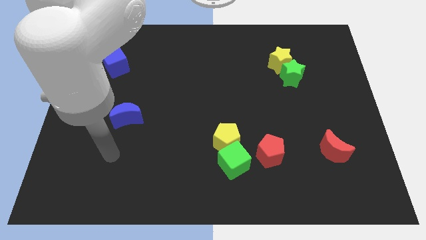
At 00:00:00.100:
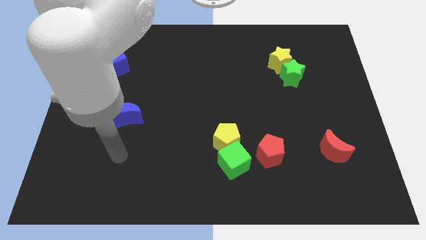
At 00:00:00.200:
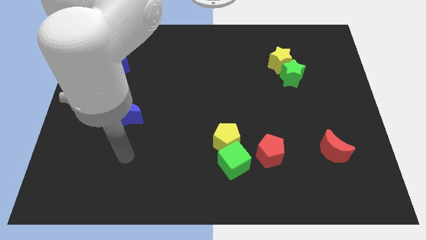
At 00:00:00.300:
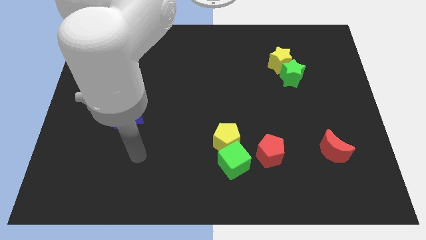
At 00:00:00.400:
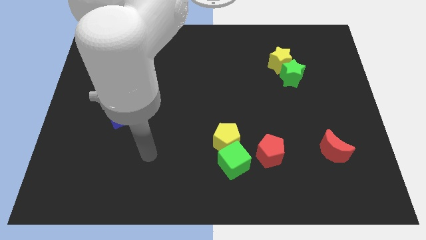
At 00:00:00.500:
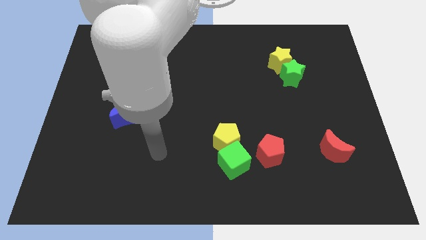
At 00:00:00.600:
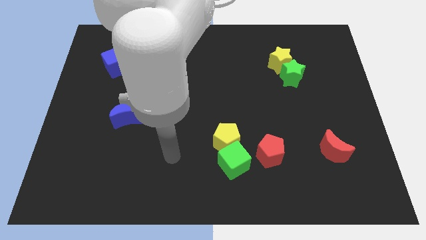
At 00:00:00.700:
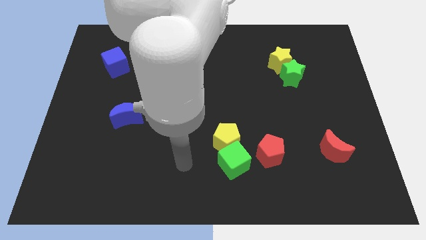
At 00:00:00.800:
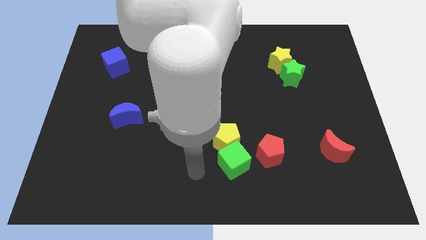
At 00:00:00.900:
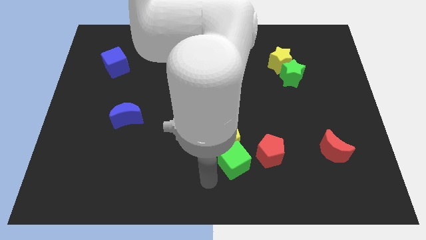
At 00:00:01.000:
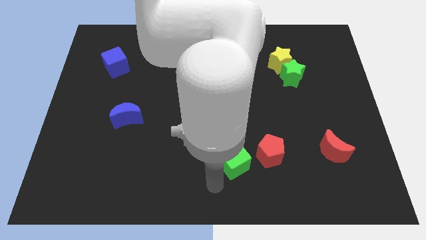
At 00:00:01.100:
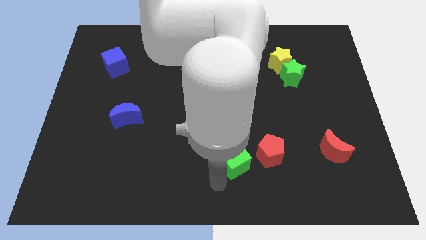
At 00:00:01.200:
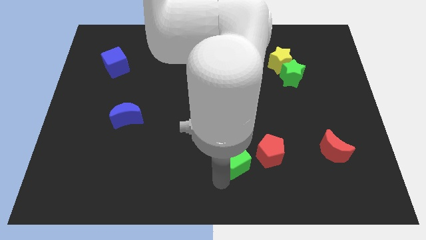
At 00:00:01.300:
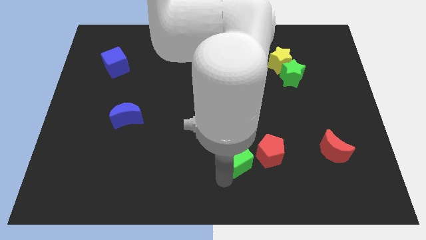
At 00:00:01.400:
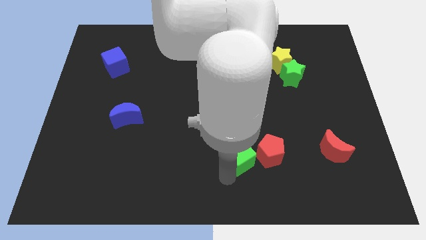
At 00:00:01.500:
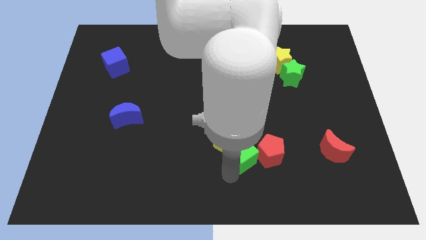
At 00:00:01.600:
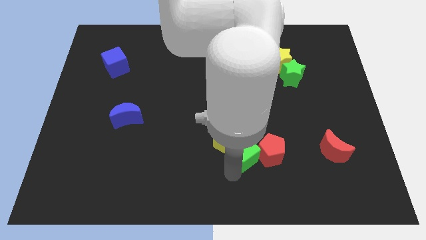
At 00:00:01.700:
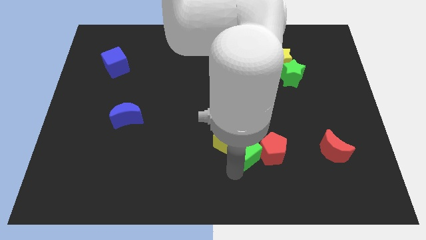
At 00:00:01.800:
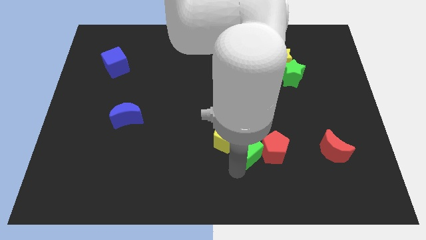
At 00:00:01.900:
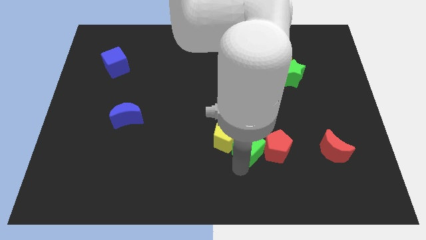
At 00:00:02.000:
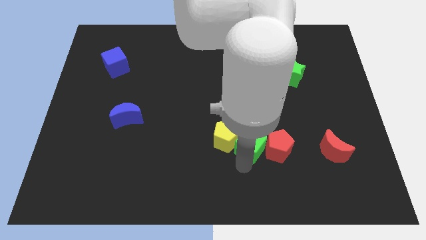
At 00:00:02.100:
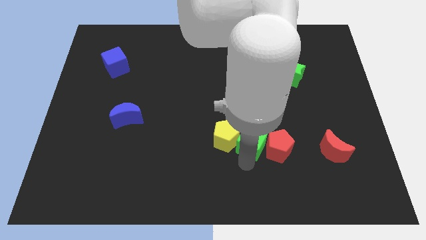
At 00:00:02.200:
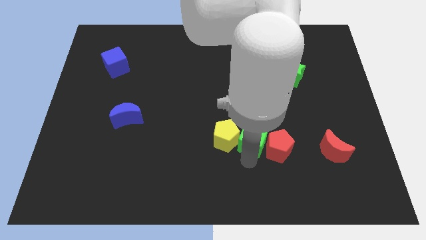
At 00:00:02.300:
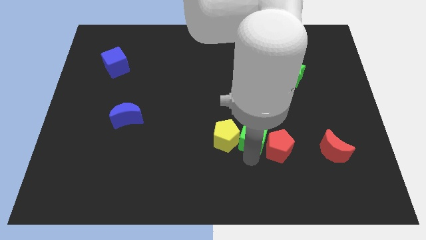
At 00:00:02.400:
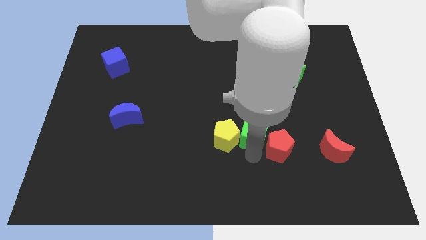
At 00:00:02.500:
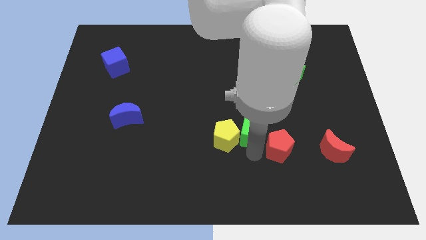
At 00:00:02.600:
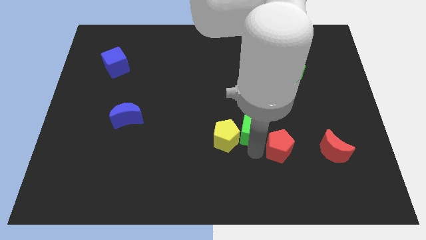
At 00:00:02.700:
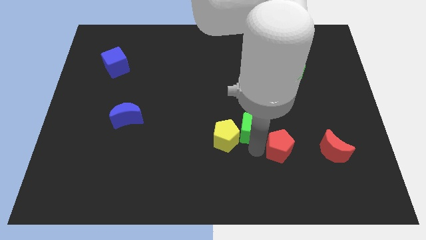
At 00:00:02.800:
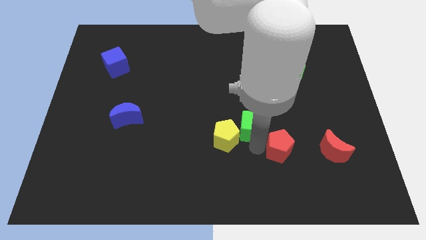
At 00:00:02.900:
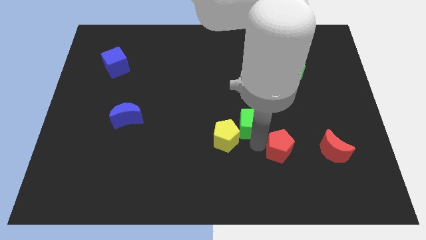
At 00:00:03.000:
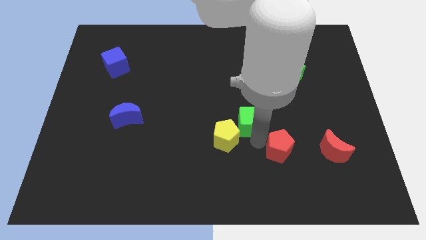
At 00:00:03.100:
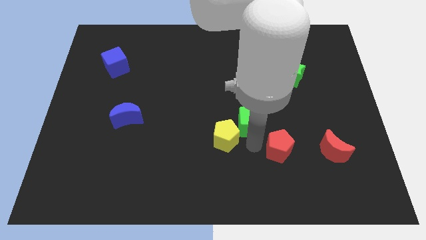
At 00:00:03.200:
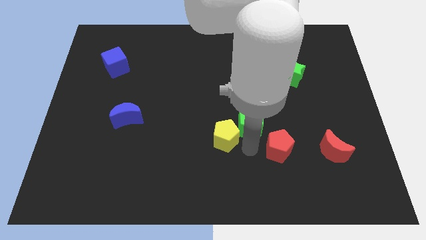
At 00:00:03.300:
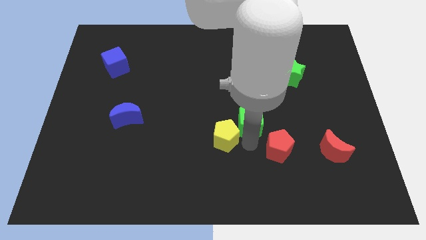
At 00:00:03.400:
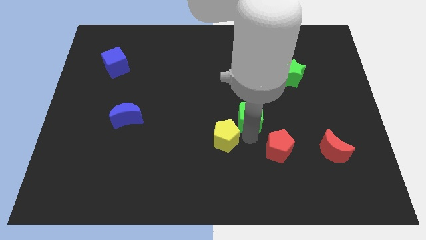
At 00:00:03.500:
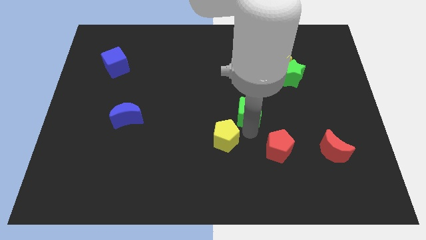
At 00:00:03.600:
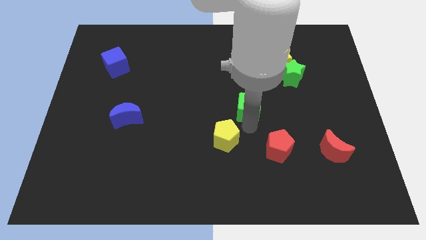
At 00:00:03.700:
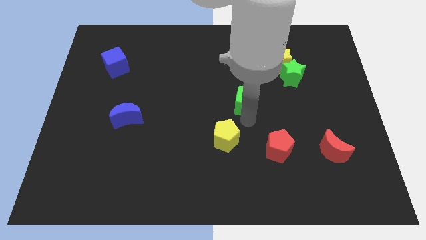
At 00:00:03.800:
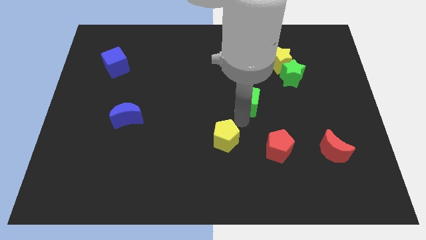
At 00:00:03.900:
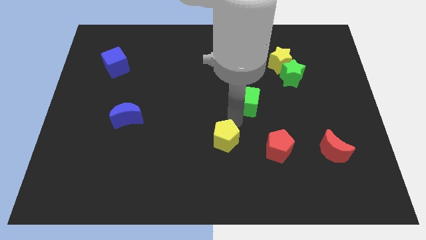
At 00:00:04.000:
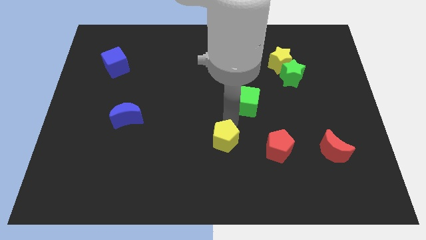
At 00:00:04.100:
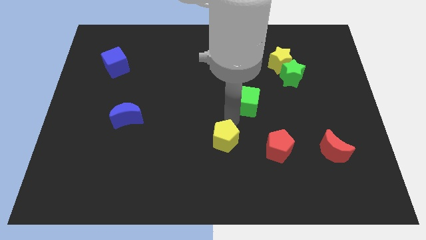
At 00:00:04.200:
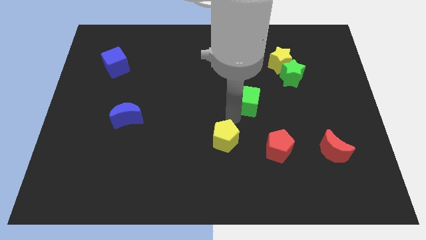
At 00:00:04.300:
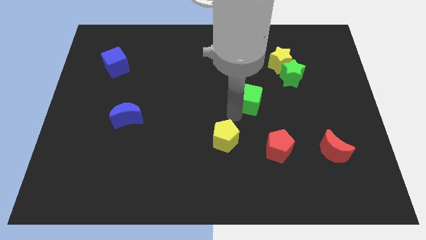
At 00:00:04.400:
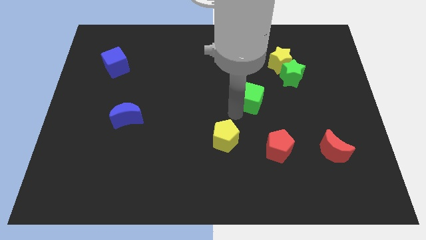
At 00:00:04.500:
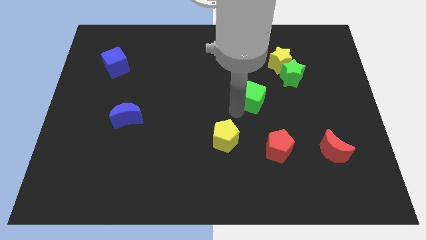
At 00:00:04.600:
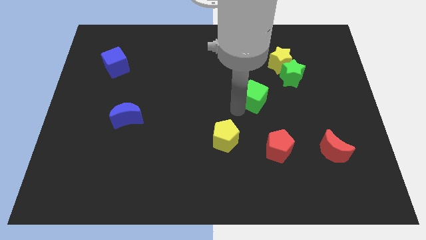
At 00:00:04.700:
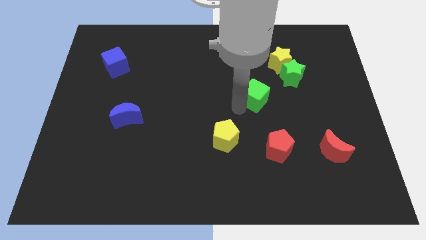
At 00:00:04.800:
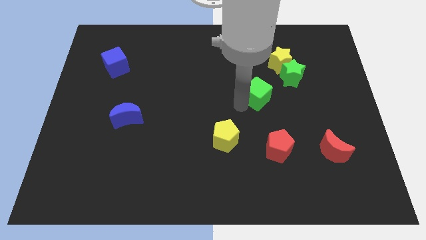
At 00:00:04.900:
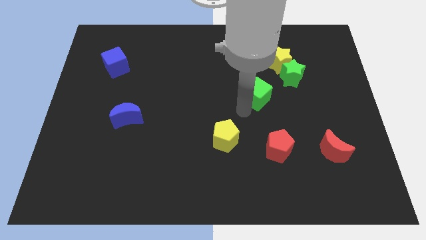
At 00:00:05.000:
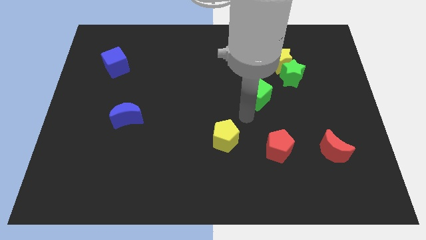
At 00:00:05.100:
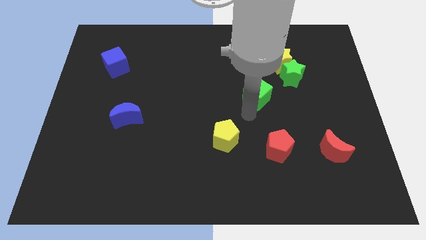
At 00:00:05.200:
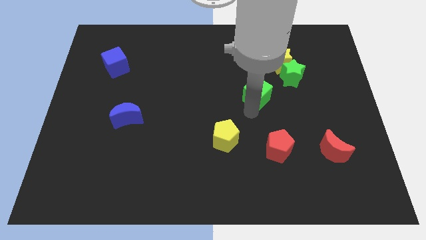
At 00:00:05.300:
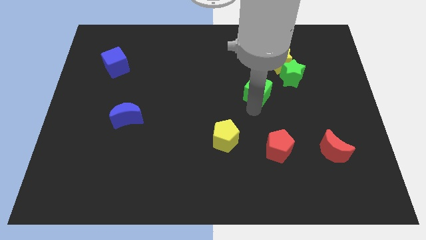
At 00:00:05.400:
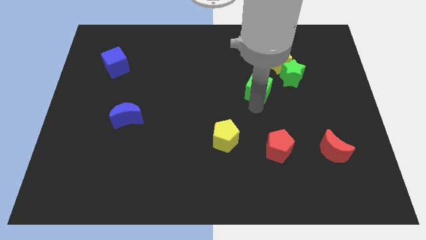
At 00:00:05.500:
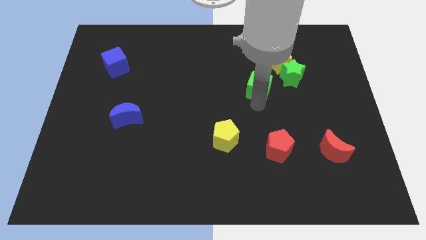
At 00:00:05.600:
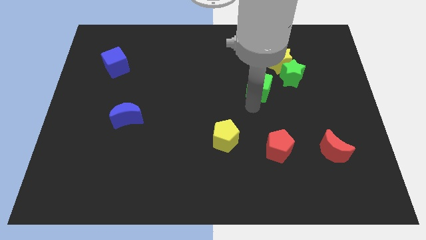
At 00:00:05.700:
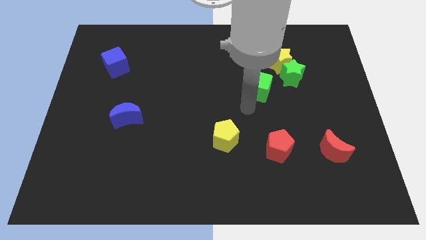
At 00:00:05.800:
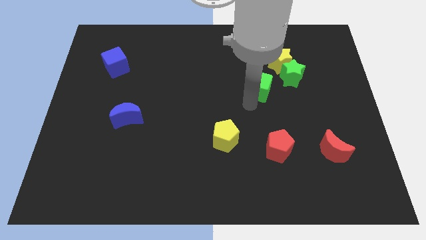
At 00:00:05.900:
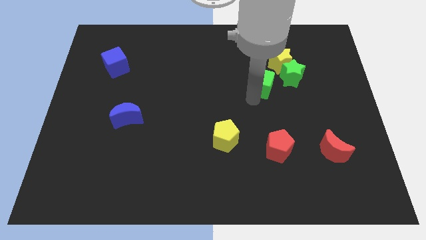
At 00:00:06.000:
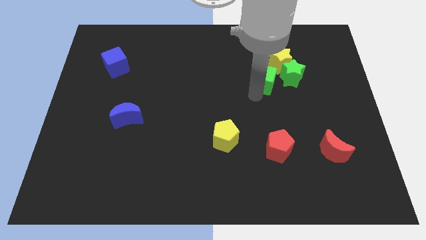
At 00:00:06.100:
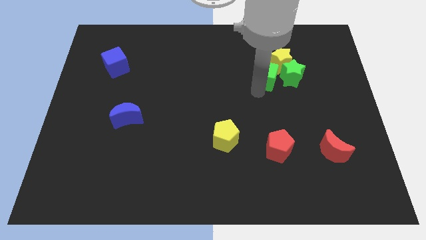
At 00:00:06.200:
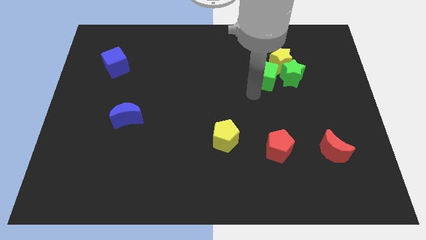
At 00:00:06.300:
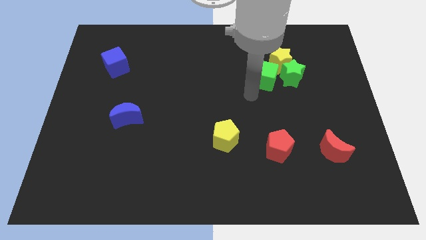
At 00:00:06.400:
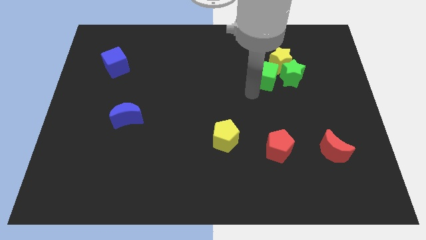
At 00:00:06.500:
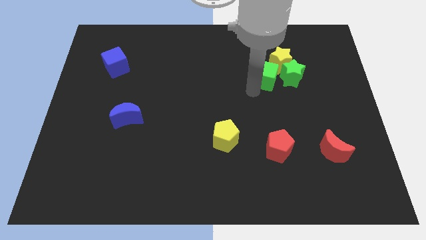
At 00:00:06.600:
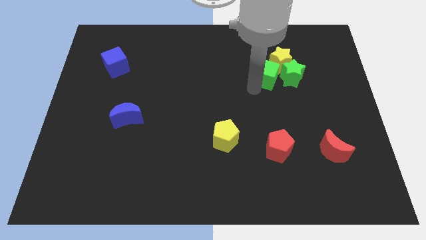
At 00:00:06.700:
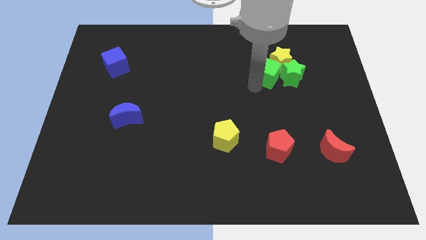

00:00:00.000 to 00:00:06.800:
slide the green cube towards the yellow star

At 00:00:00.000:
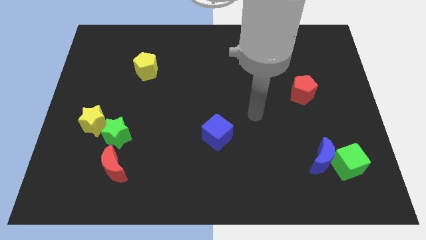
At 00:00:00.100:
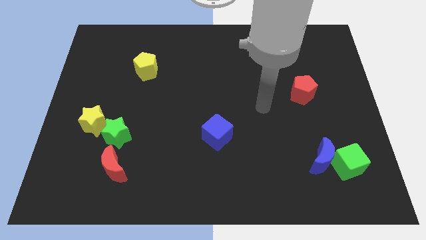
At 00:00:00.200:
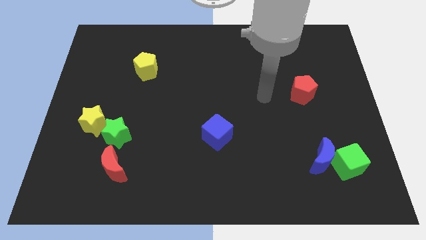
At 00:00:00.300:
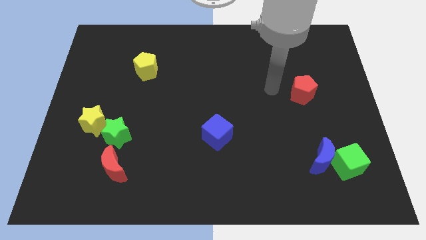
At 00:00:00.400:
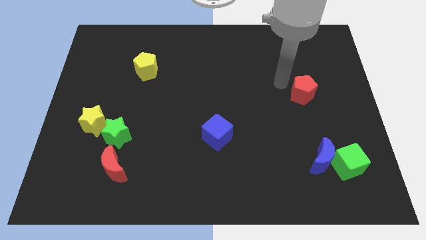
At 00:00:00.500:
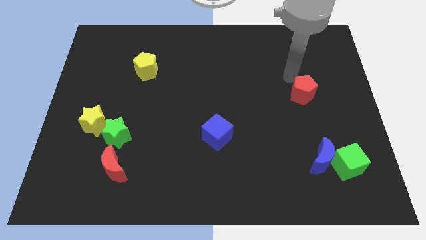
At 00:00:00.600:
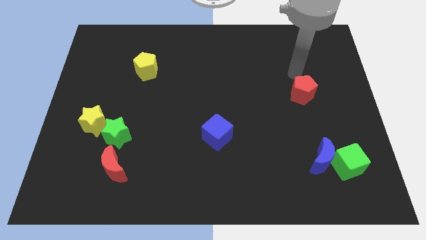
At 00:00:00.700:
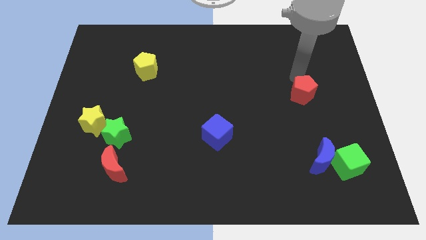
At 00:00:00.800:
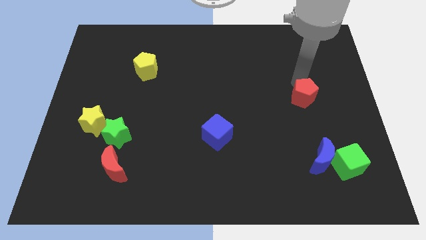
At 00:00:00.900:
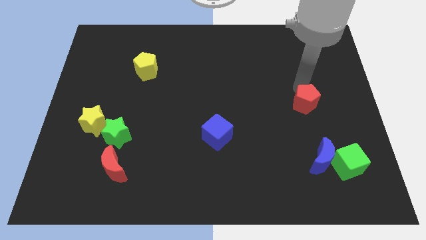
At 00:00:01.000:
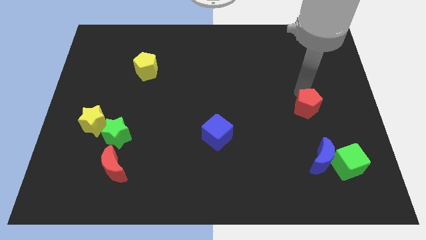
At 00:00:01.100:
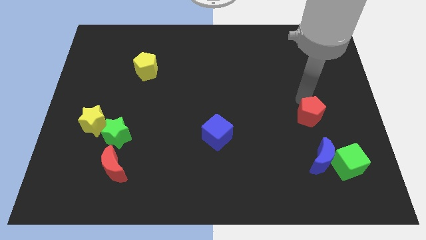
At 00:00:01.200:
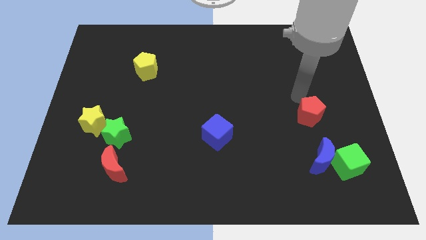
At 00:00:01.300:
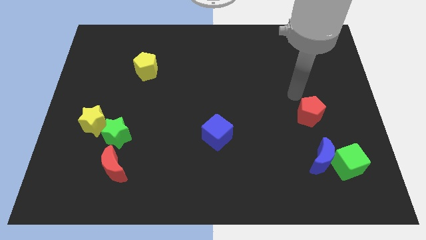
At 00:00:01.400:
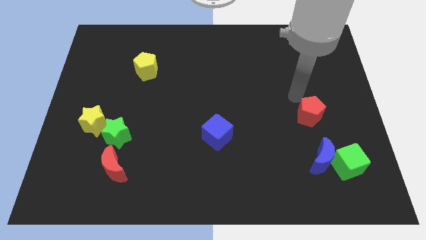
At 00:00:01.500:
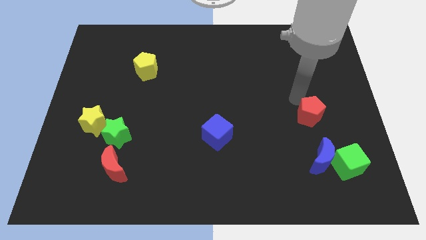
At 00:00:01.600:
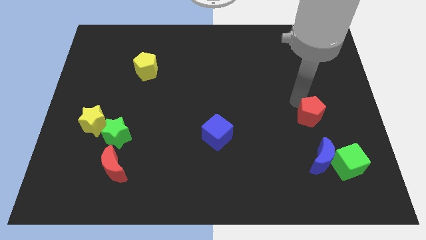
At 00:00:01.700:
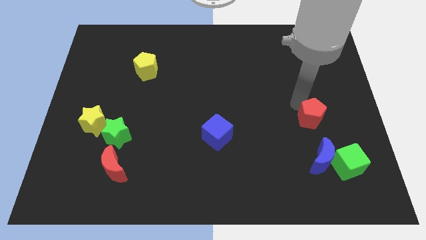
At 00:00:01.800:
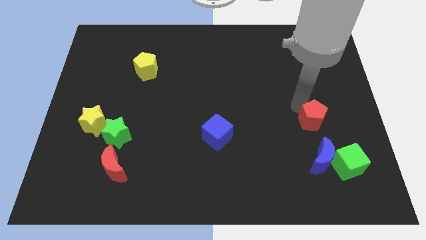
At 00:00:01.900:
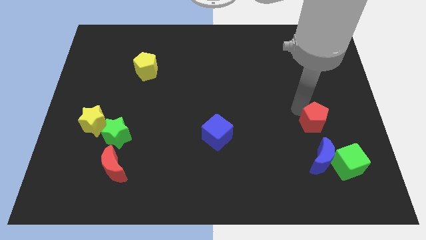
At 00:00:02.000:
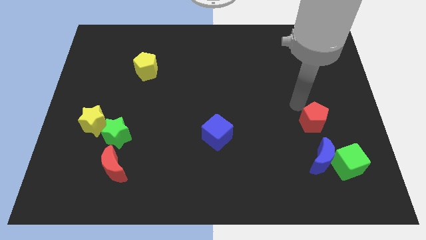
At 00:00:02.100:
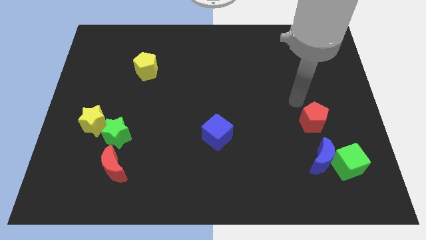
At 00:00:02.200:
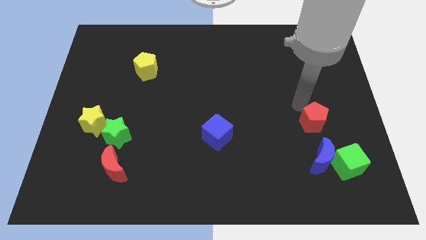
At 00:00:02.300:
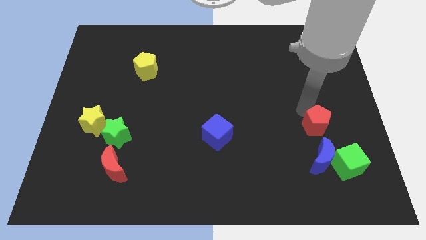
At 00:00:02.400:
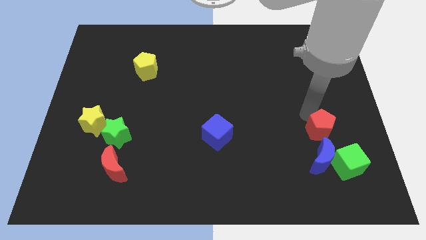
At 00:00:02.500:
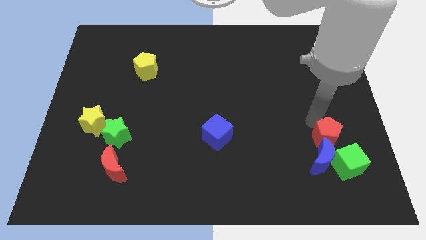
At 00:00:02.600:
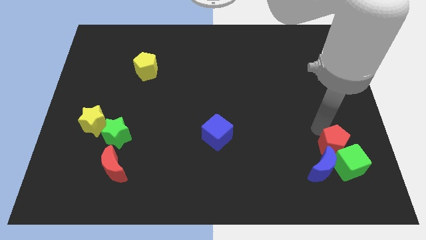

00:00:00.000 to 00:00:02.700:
put the red pentagon to the green cube
